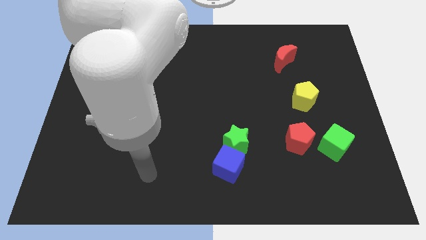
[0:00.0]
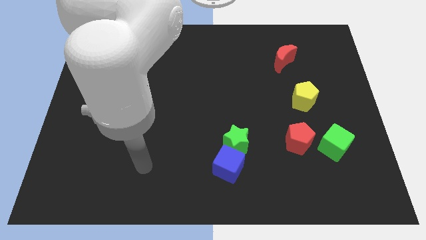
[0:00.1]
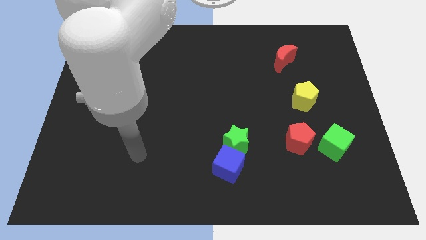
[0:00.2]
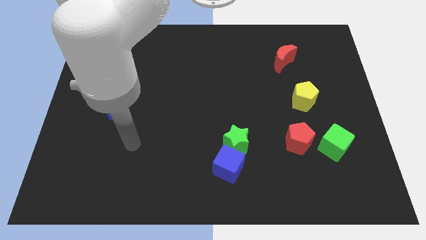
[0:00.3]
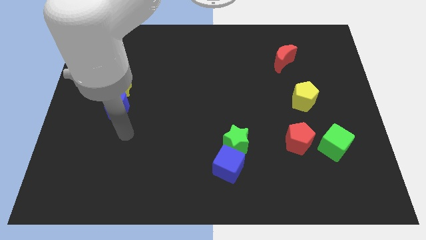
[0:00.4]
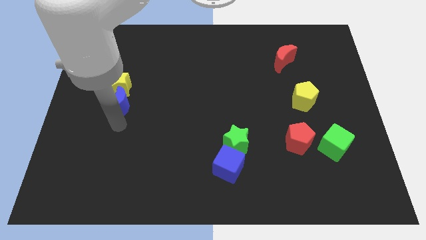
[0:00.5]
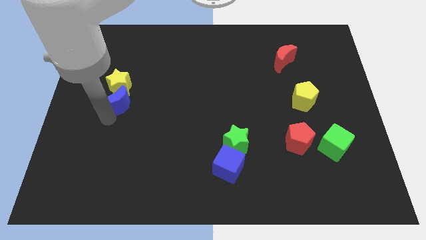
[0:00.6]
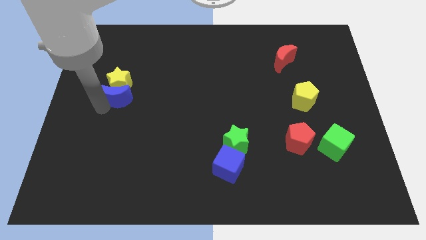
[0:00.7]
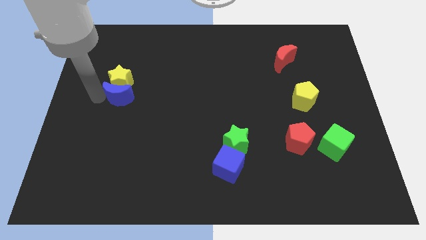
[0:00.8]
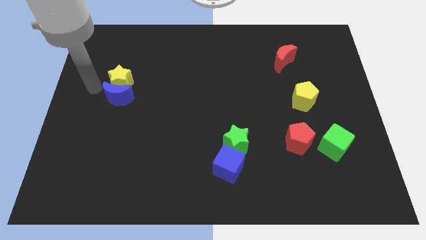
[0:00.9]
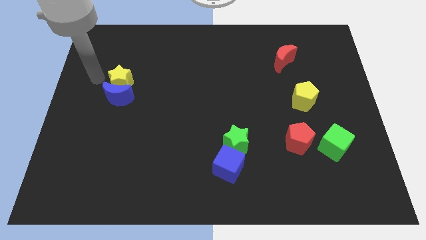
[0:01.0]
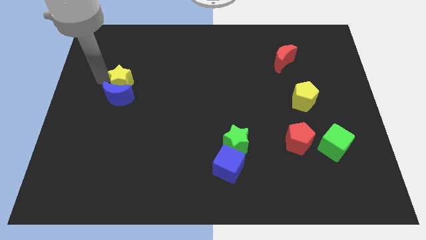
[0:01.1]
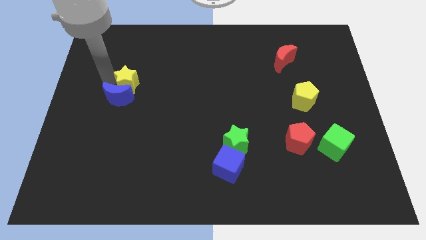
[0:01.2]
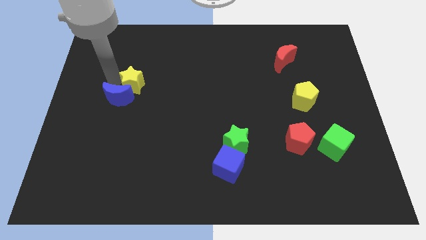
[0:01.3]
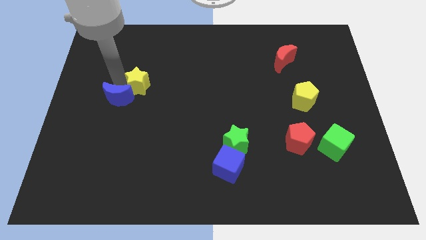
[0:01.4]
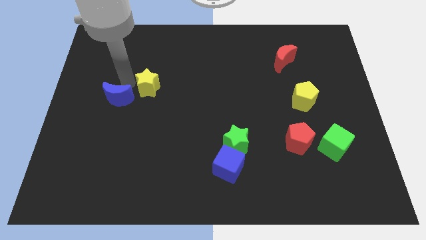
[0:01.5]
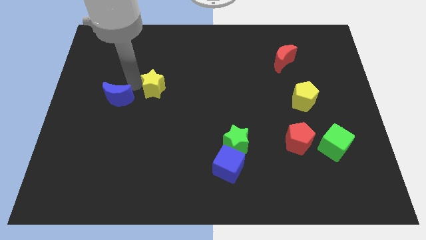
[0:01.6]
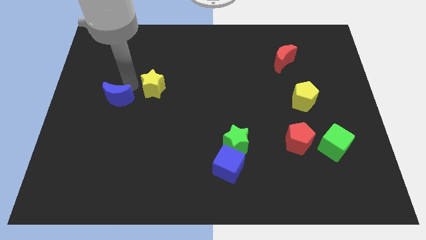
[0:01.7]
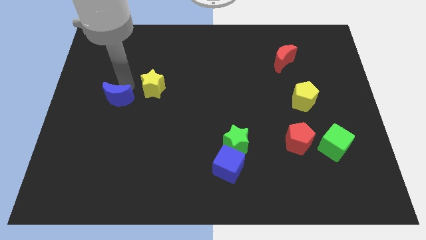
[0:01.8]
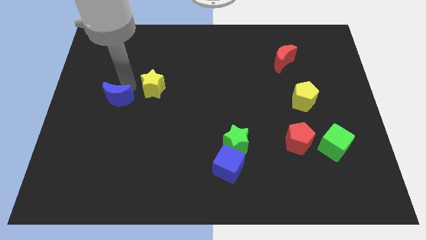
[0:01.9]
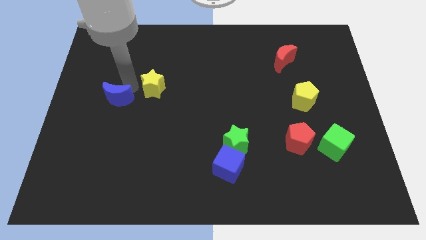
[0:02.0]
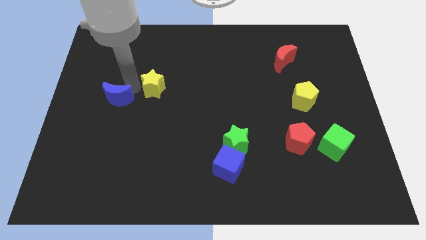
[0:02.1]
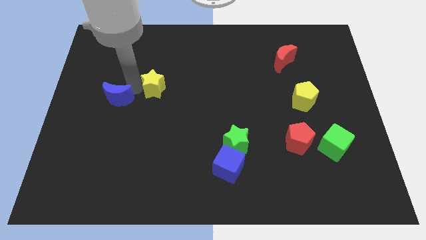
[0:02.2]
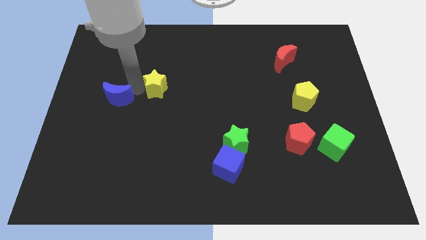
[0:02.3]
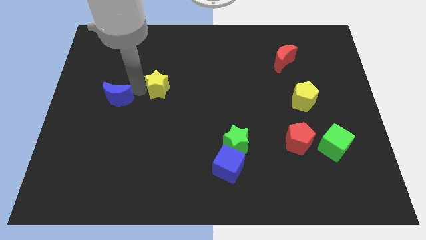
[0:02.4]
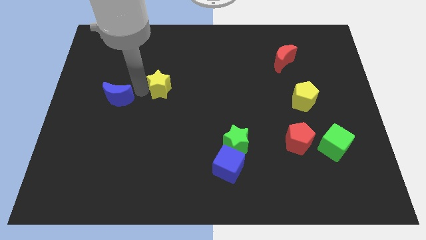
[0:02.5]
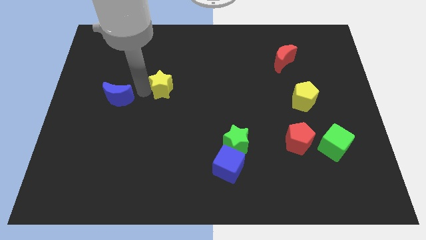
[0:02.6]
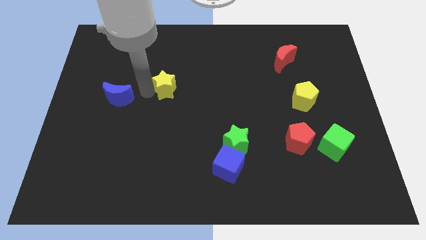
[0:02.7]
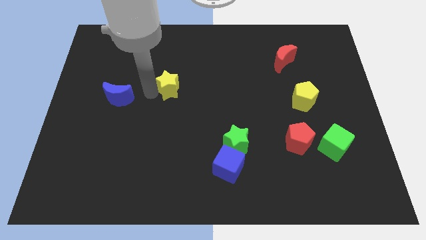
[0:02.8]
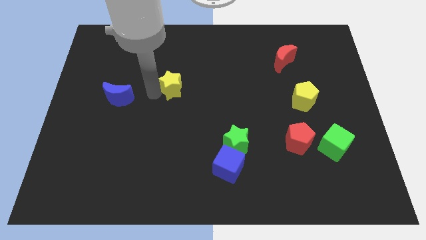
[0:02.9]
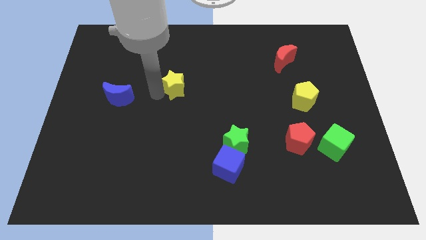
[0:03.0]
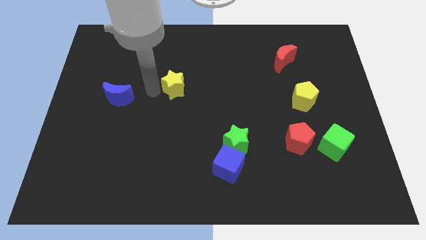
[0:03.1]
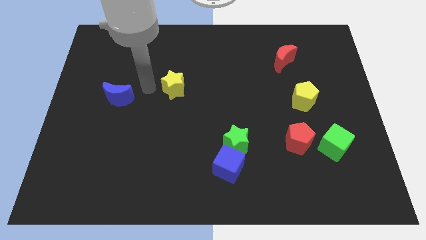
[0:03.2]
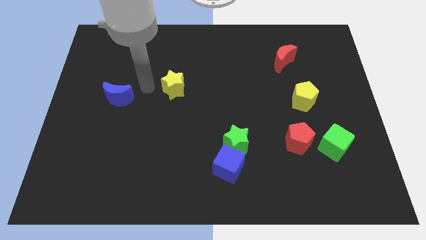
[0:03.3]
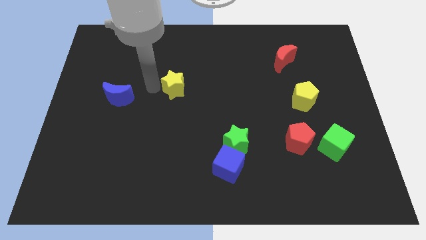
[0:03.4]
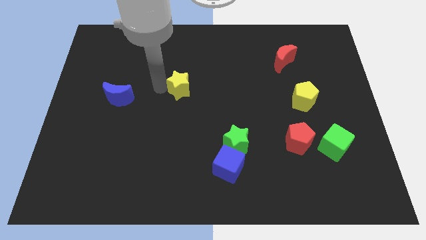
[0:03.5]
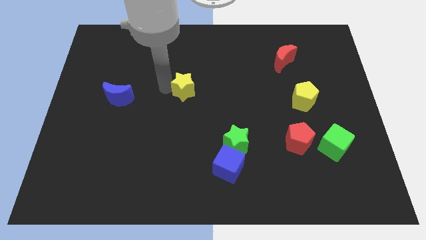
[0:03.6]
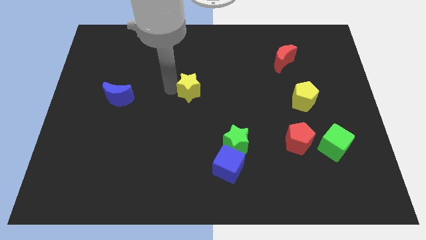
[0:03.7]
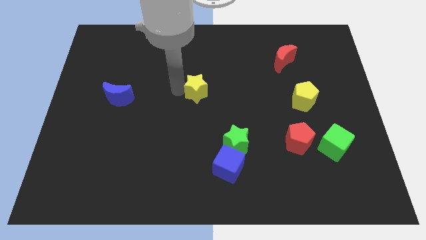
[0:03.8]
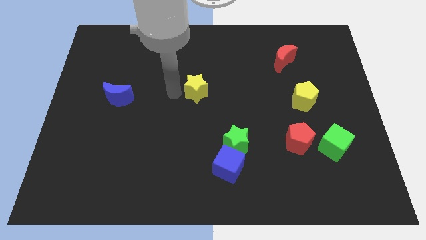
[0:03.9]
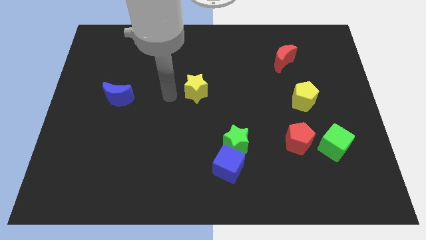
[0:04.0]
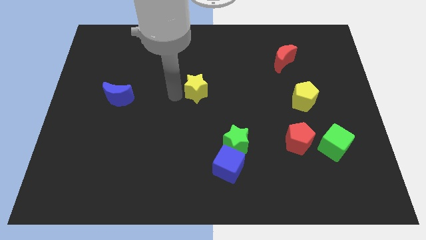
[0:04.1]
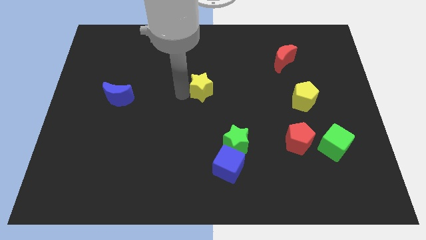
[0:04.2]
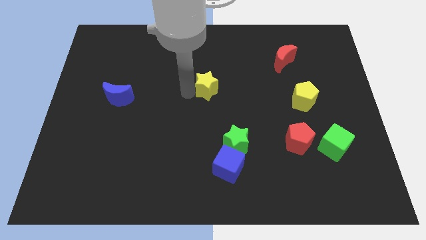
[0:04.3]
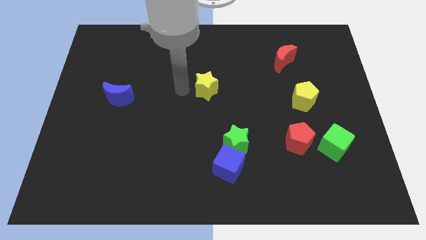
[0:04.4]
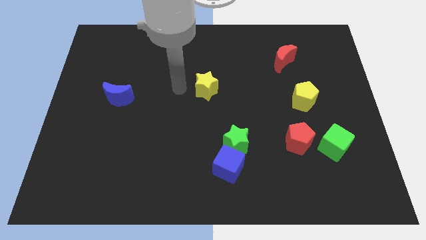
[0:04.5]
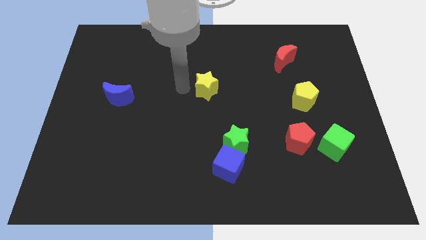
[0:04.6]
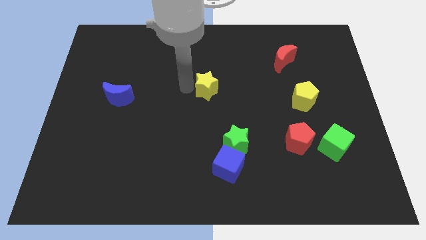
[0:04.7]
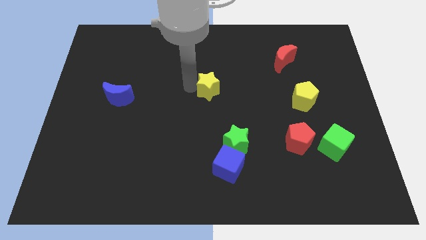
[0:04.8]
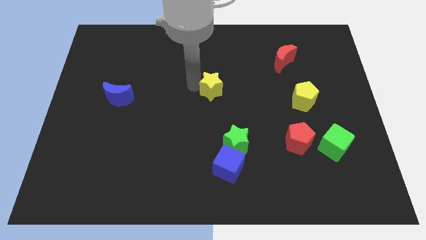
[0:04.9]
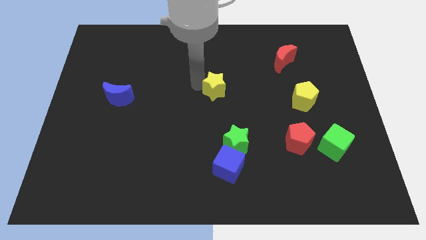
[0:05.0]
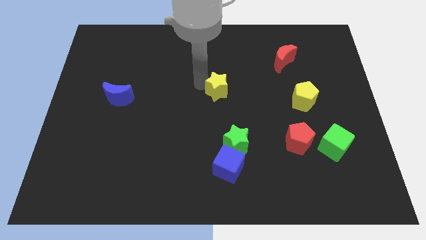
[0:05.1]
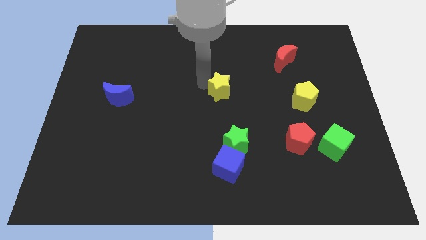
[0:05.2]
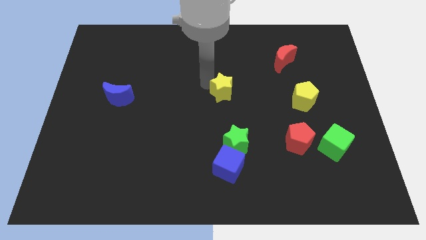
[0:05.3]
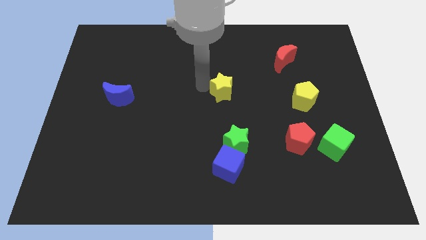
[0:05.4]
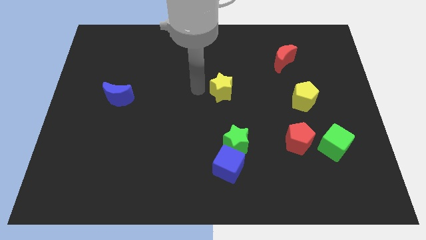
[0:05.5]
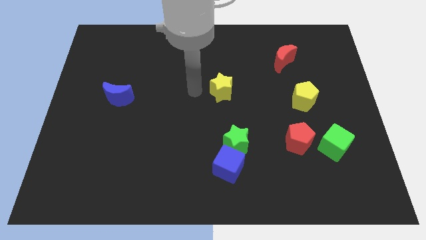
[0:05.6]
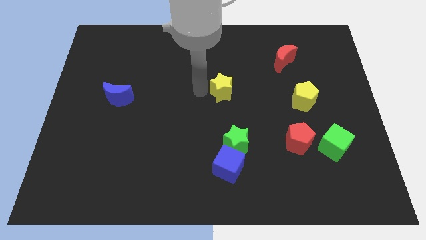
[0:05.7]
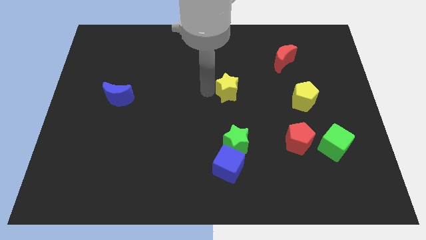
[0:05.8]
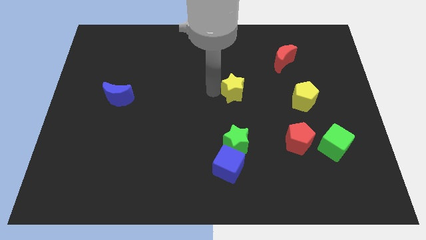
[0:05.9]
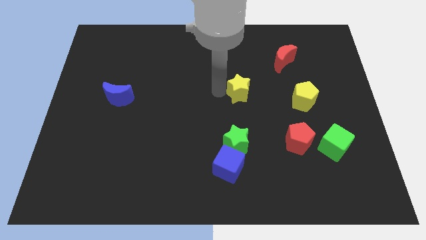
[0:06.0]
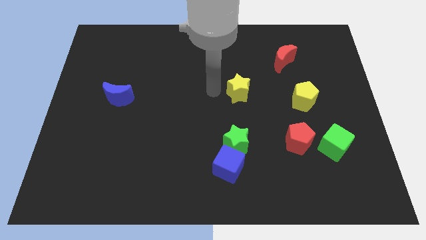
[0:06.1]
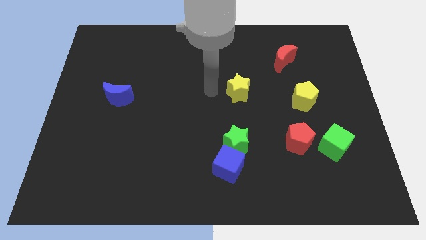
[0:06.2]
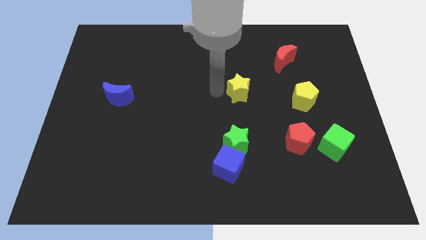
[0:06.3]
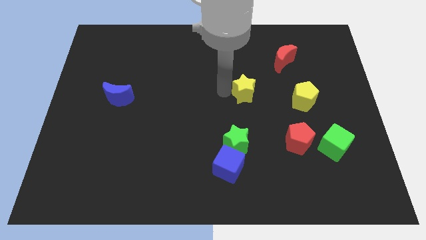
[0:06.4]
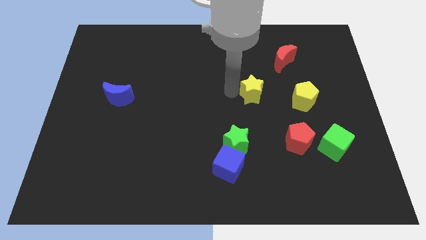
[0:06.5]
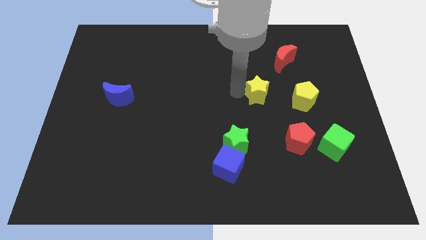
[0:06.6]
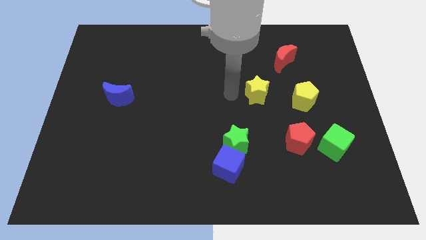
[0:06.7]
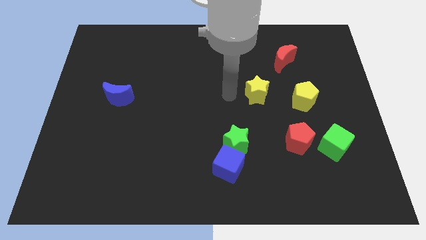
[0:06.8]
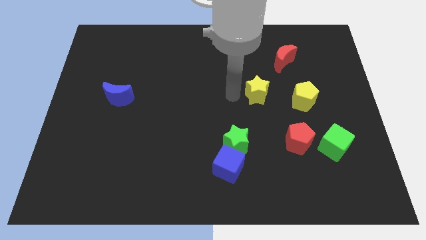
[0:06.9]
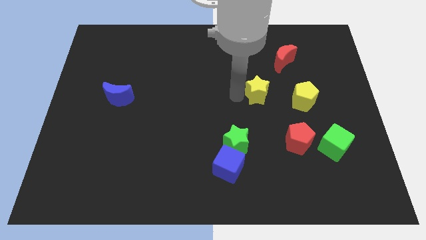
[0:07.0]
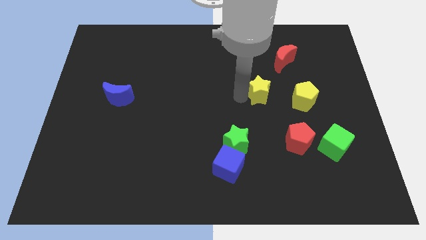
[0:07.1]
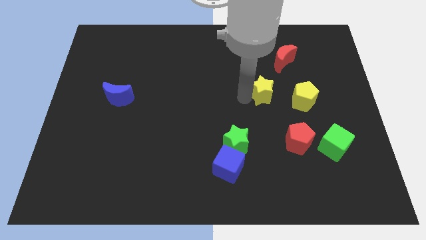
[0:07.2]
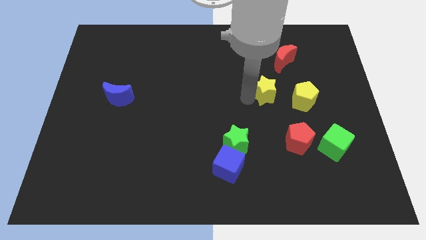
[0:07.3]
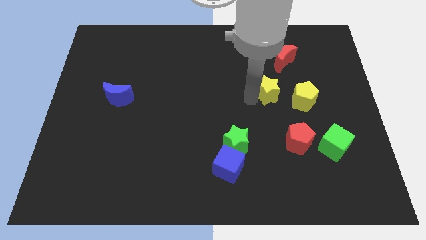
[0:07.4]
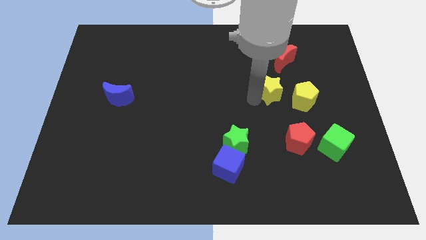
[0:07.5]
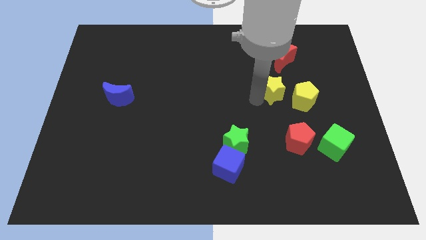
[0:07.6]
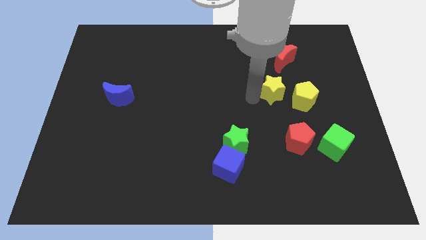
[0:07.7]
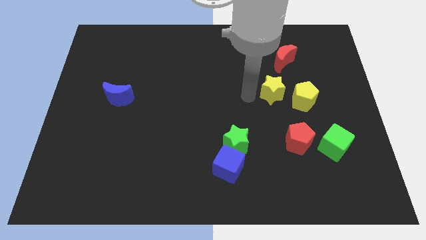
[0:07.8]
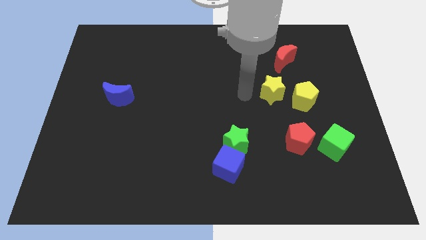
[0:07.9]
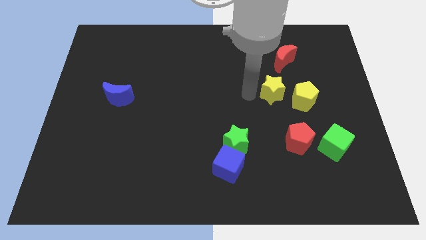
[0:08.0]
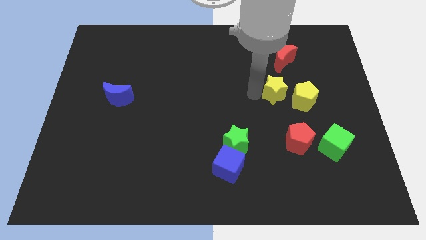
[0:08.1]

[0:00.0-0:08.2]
push the yellow star to the top side of the red pentagon
